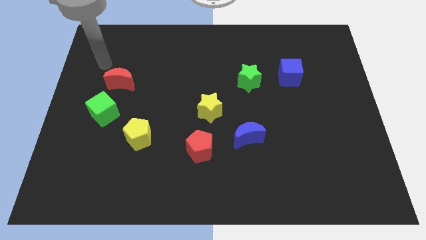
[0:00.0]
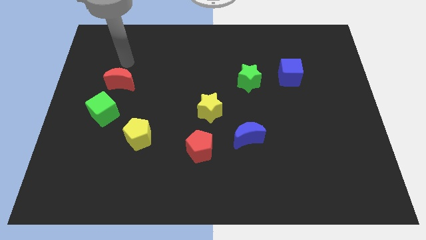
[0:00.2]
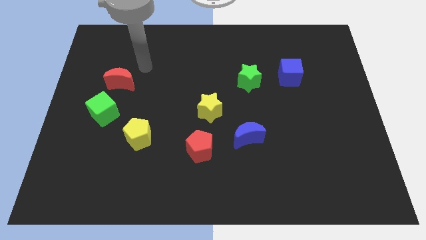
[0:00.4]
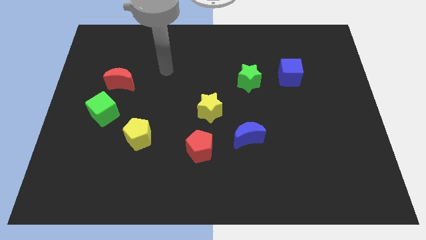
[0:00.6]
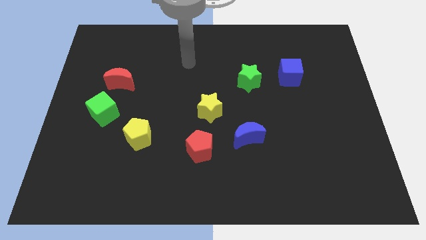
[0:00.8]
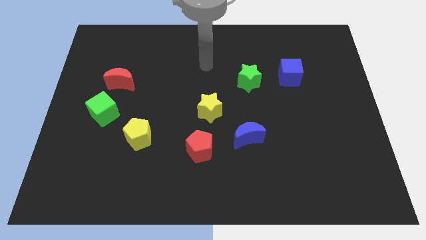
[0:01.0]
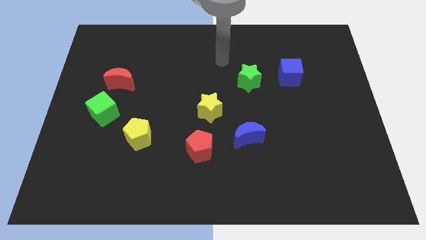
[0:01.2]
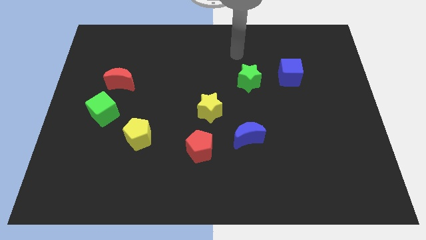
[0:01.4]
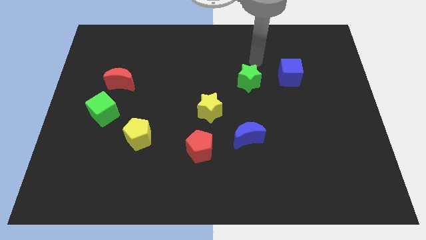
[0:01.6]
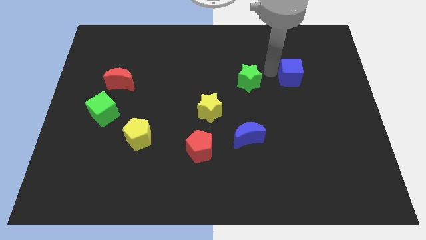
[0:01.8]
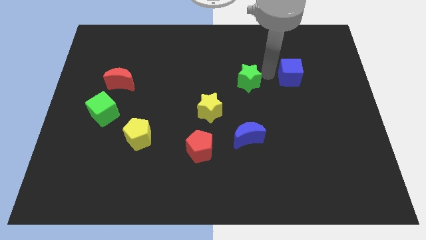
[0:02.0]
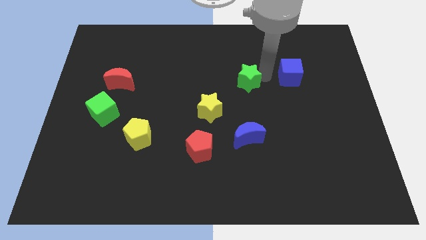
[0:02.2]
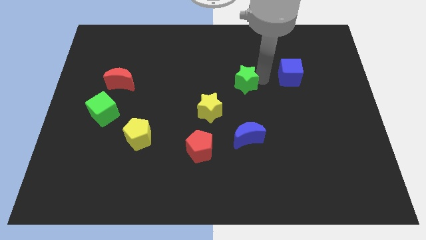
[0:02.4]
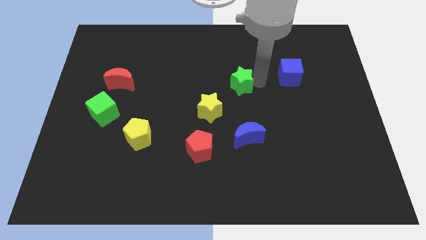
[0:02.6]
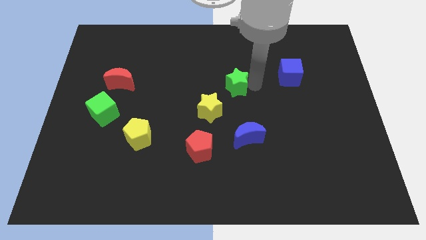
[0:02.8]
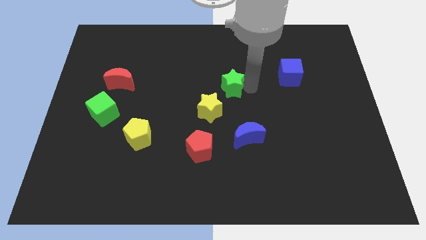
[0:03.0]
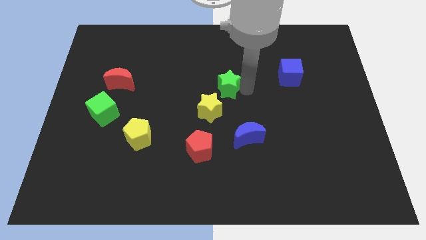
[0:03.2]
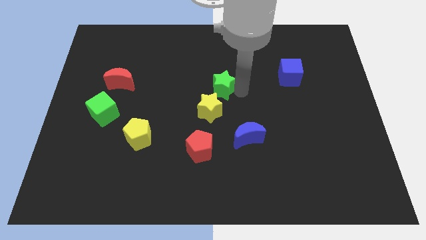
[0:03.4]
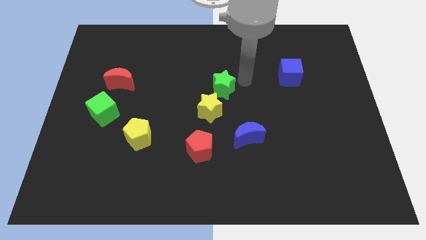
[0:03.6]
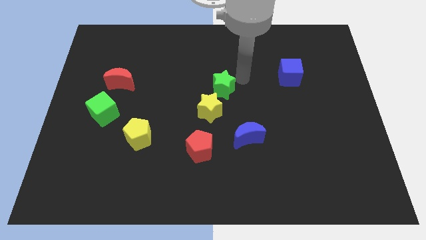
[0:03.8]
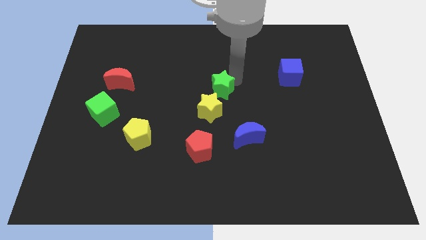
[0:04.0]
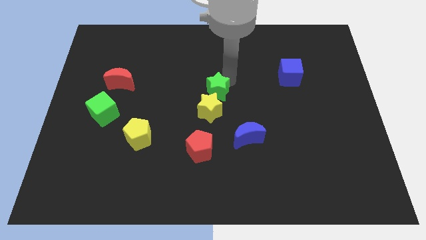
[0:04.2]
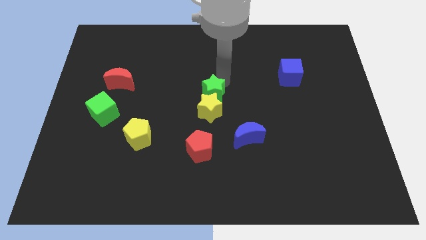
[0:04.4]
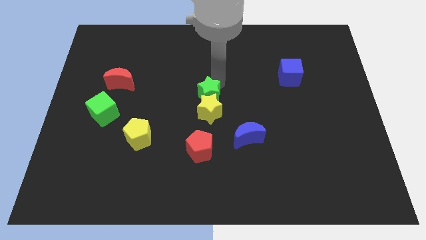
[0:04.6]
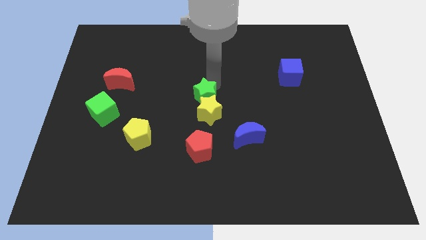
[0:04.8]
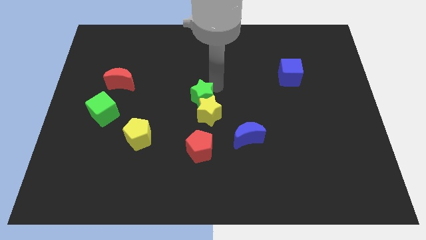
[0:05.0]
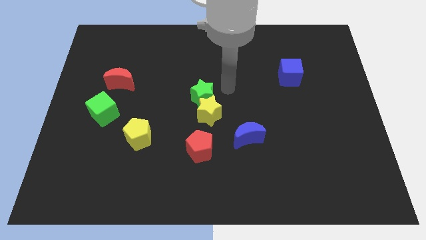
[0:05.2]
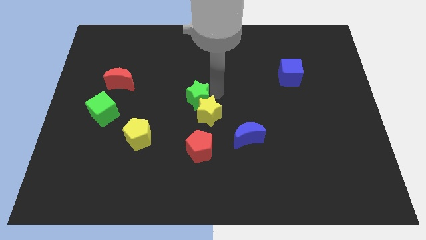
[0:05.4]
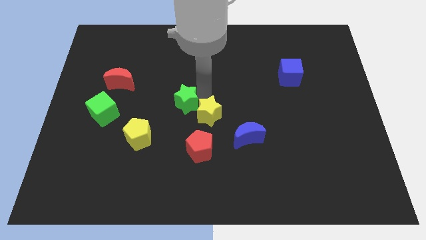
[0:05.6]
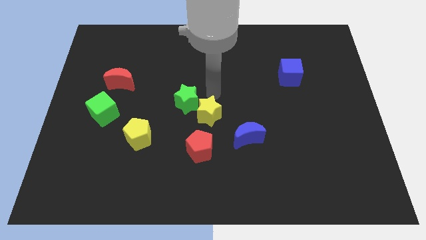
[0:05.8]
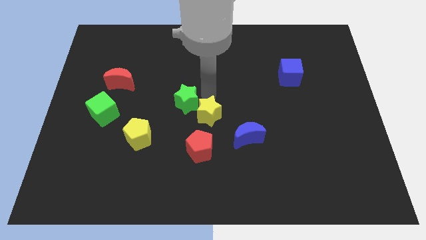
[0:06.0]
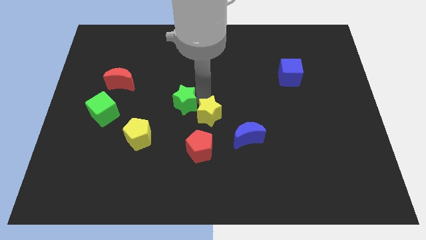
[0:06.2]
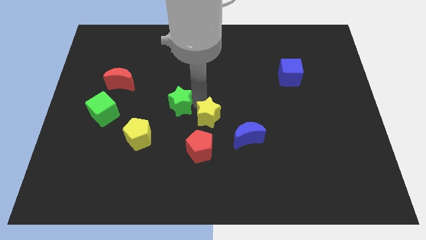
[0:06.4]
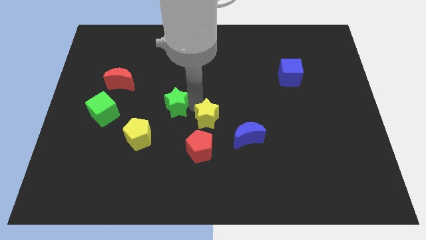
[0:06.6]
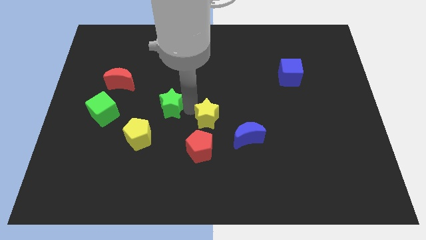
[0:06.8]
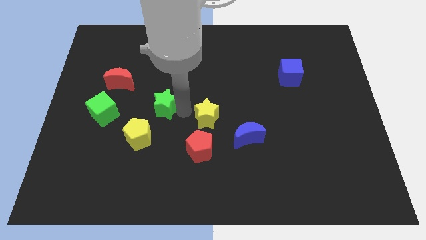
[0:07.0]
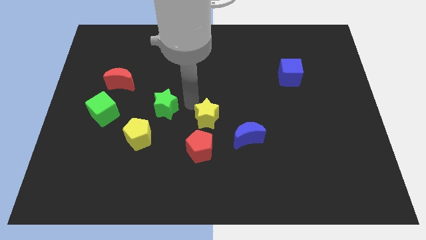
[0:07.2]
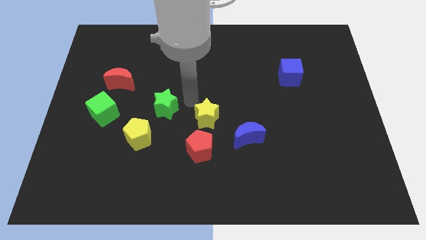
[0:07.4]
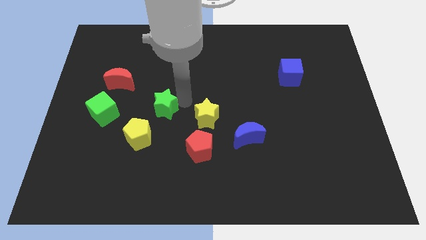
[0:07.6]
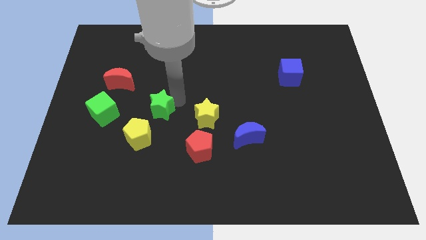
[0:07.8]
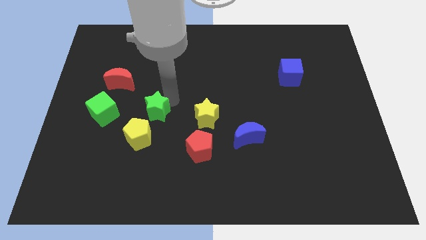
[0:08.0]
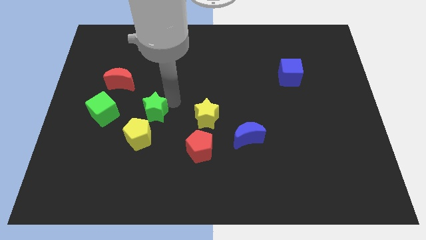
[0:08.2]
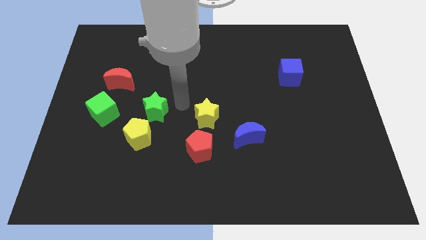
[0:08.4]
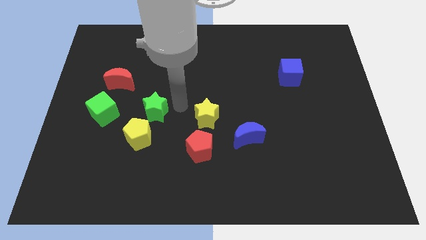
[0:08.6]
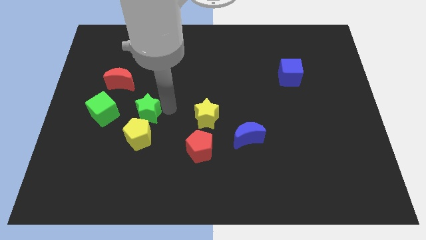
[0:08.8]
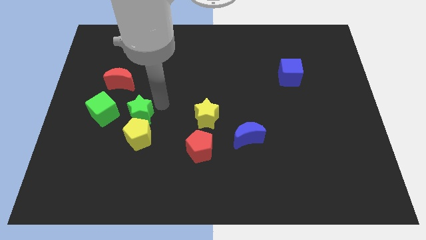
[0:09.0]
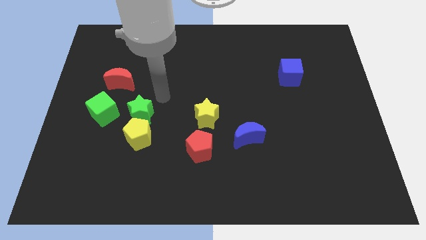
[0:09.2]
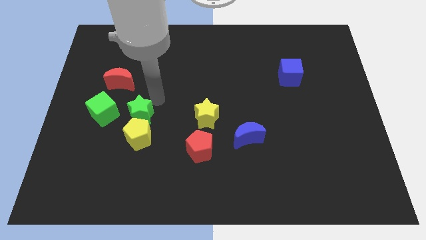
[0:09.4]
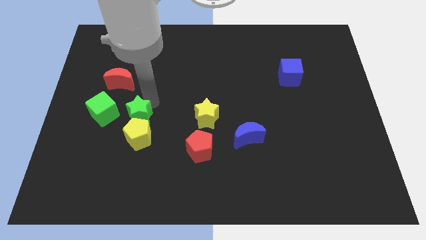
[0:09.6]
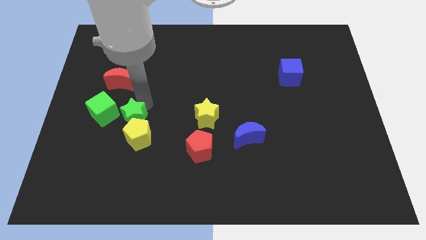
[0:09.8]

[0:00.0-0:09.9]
put the green star to the bottom right side of the green cube

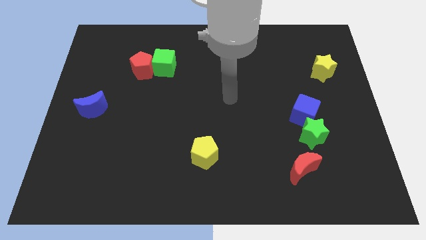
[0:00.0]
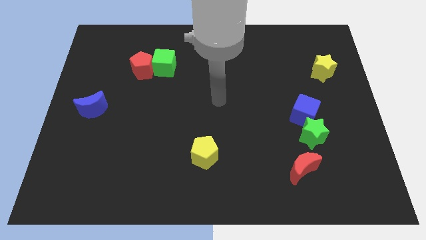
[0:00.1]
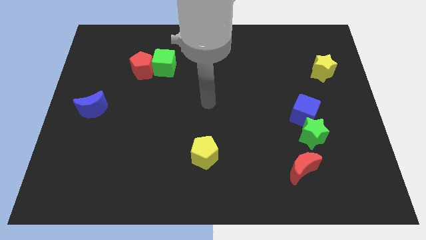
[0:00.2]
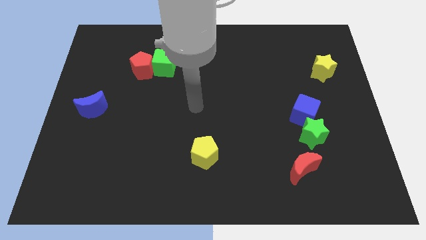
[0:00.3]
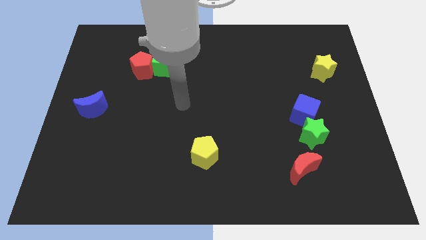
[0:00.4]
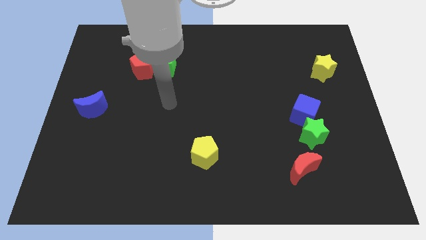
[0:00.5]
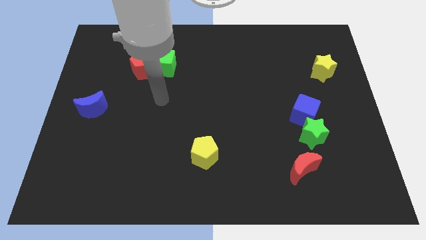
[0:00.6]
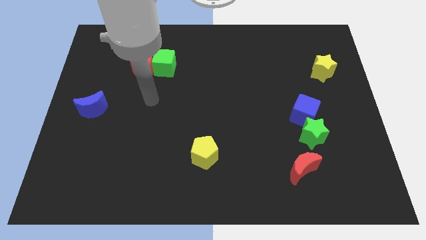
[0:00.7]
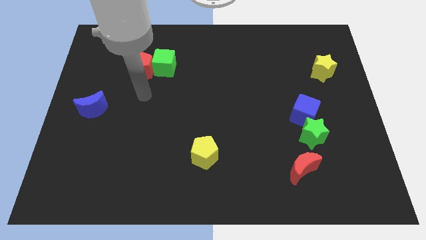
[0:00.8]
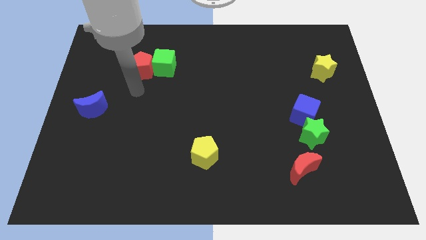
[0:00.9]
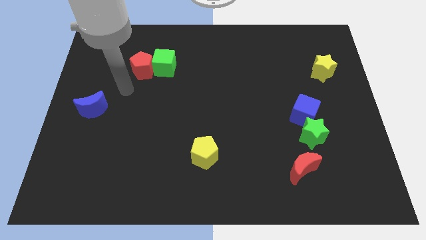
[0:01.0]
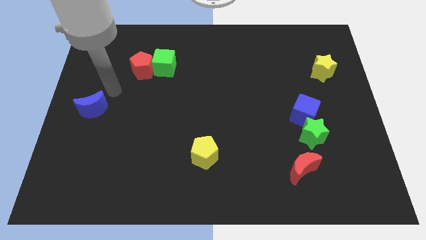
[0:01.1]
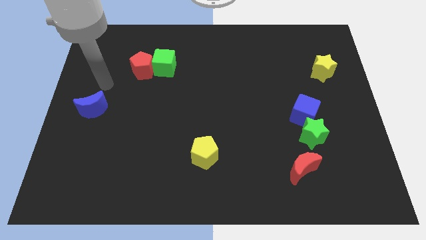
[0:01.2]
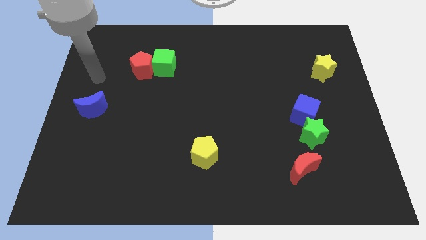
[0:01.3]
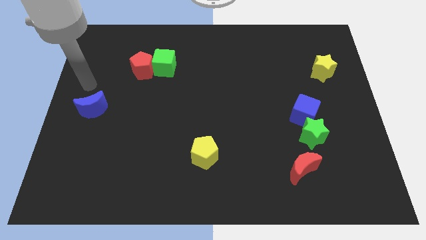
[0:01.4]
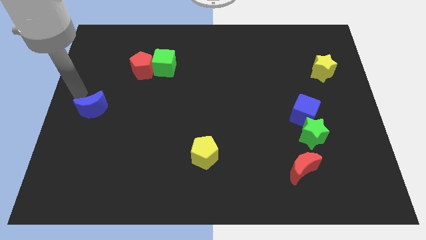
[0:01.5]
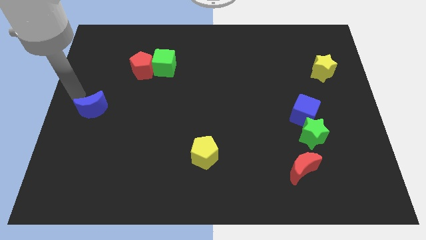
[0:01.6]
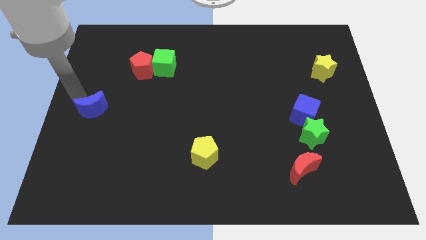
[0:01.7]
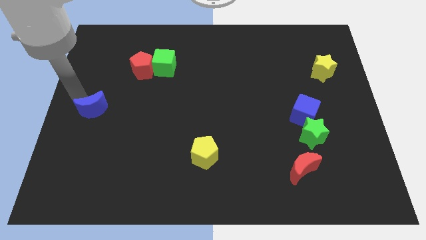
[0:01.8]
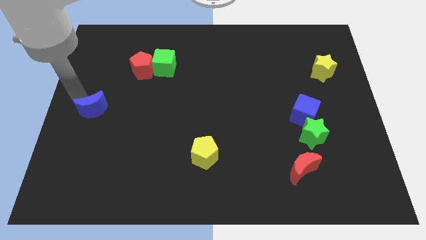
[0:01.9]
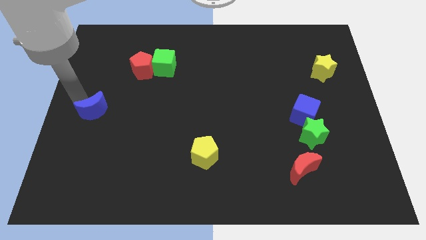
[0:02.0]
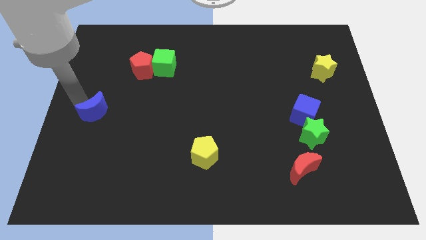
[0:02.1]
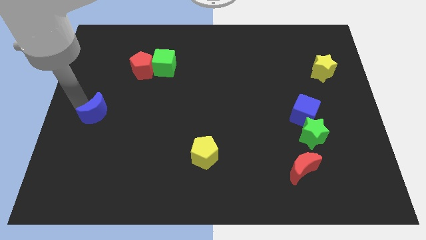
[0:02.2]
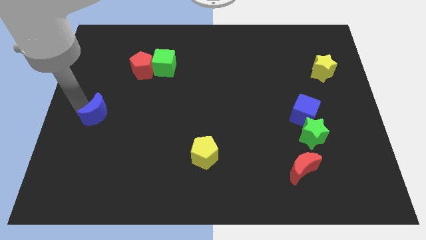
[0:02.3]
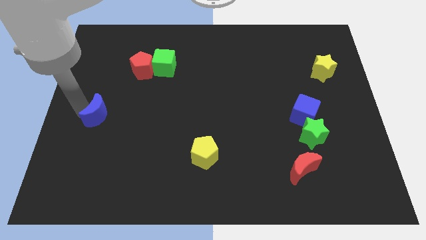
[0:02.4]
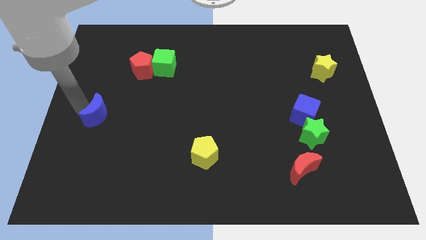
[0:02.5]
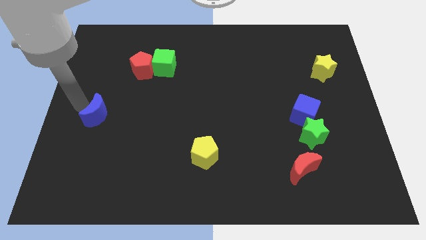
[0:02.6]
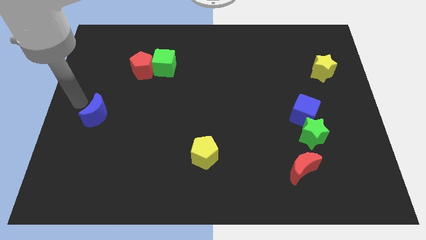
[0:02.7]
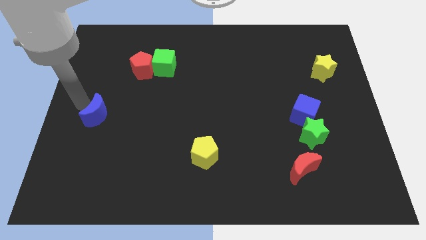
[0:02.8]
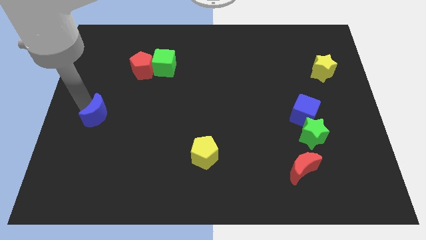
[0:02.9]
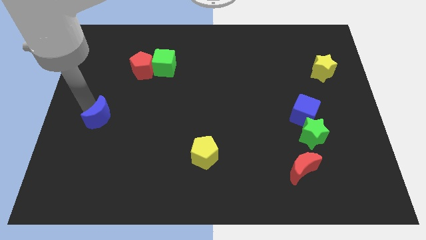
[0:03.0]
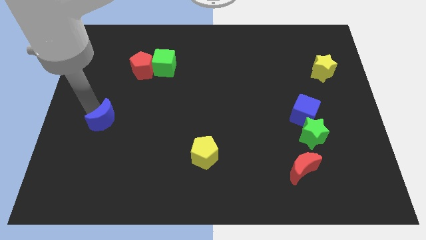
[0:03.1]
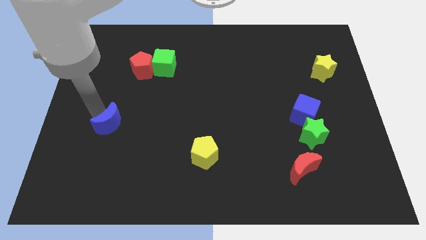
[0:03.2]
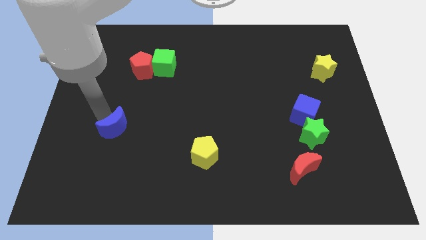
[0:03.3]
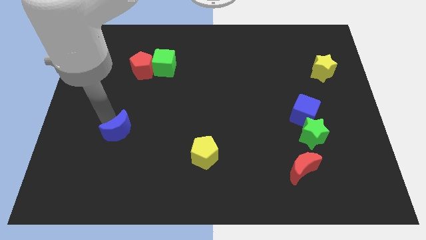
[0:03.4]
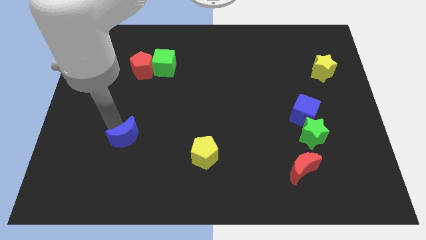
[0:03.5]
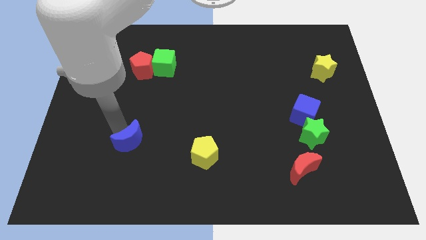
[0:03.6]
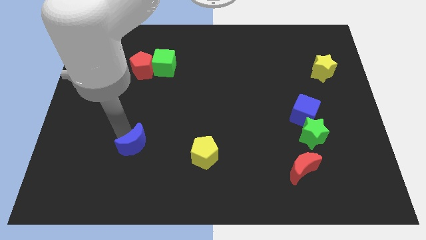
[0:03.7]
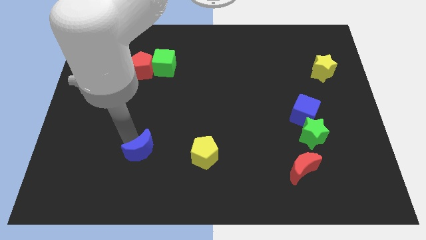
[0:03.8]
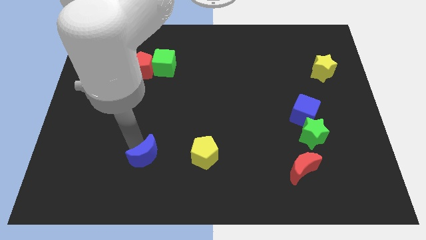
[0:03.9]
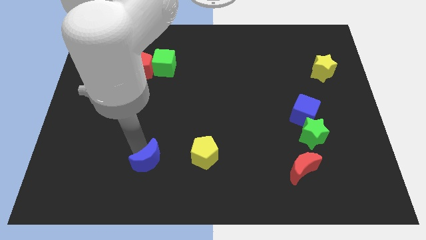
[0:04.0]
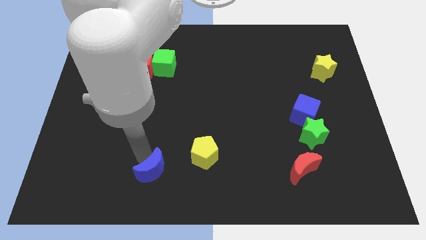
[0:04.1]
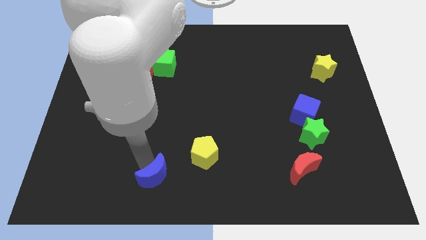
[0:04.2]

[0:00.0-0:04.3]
push the blue moon to the bottom left of the yellow pentagon
